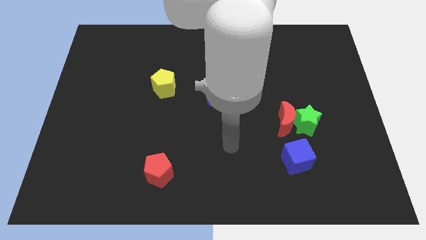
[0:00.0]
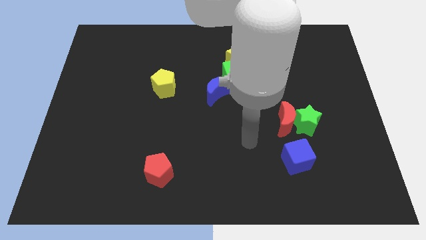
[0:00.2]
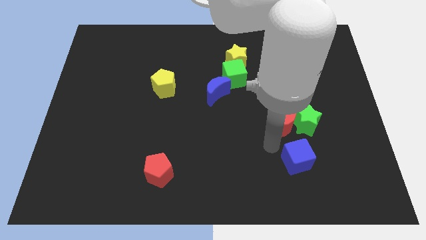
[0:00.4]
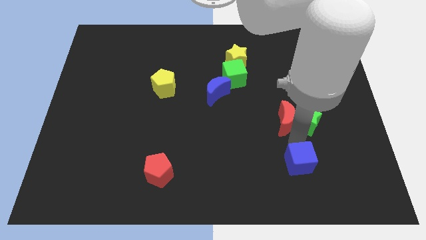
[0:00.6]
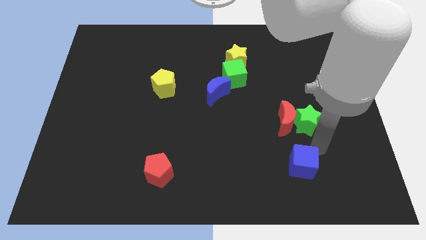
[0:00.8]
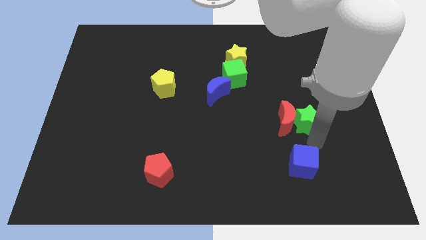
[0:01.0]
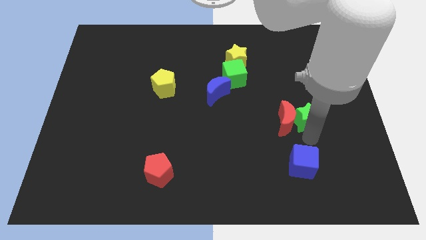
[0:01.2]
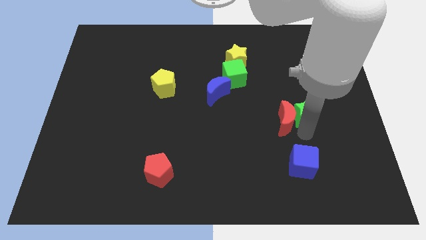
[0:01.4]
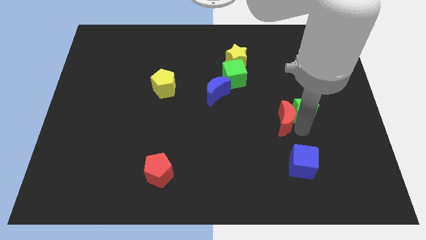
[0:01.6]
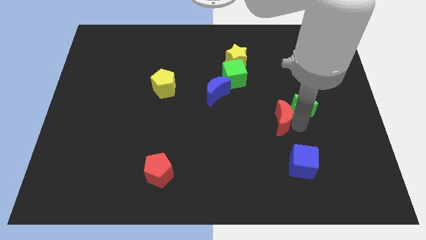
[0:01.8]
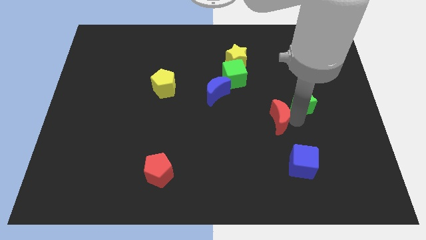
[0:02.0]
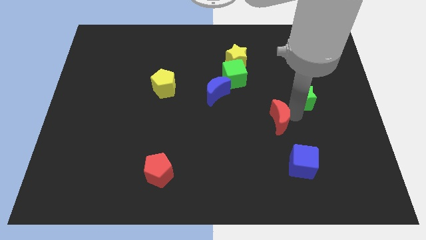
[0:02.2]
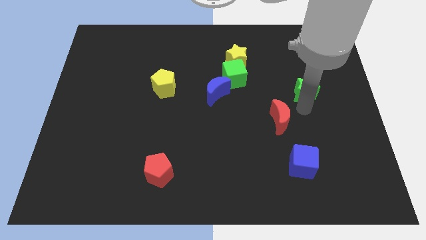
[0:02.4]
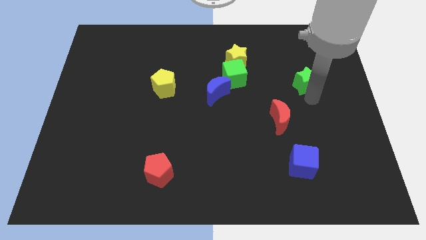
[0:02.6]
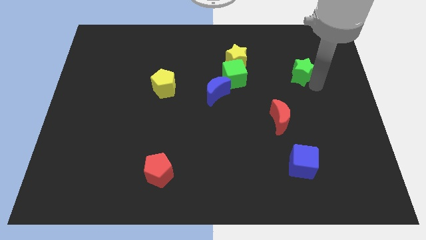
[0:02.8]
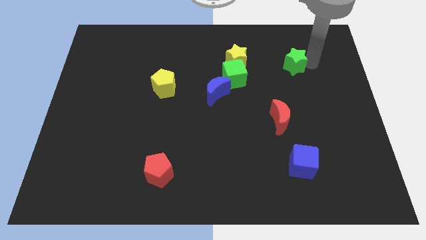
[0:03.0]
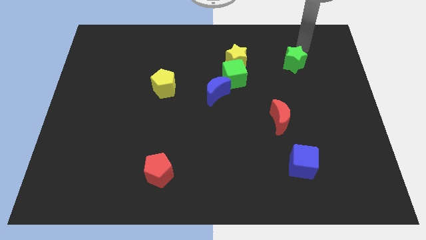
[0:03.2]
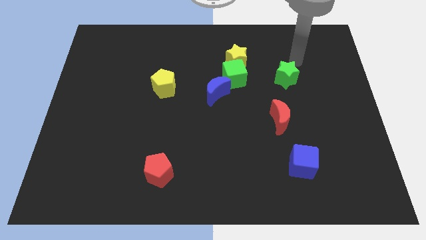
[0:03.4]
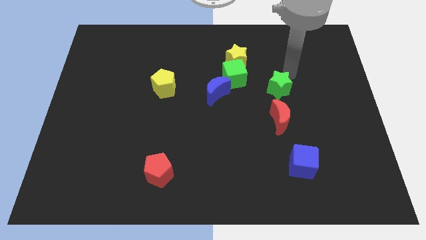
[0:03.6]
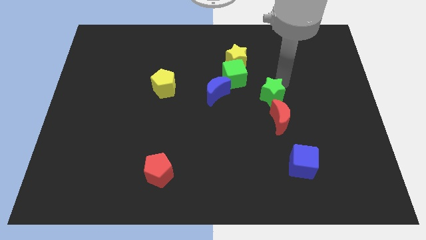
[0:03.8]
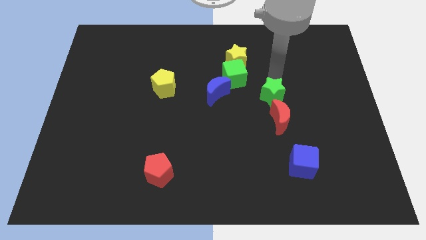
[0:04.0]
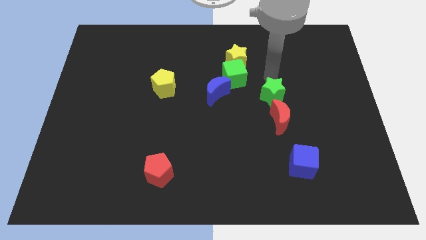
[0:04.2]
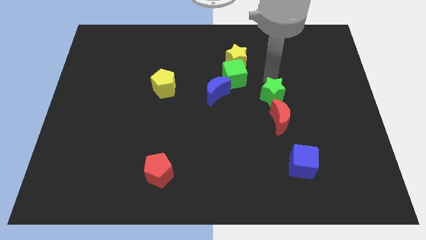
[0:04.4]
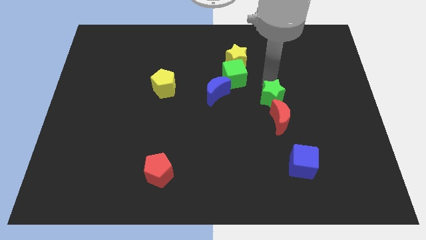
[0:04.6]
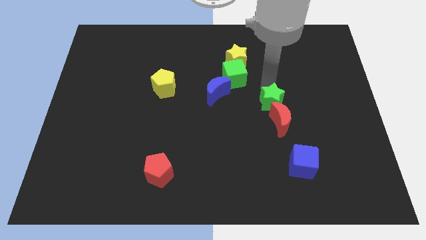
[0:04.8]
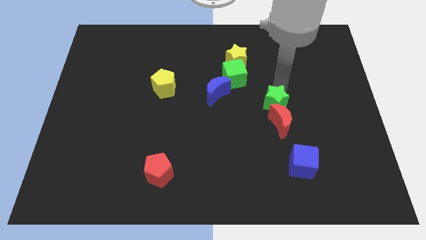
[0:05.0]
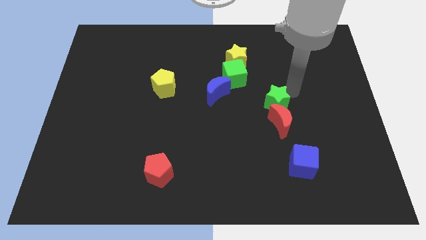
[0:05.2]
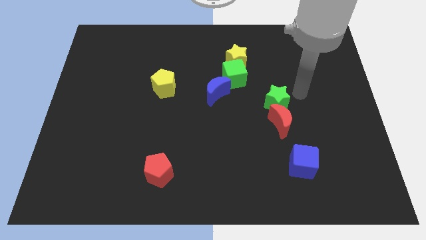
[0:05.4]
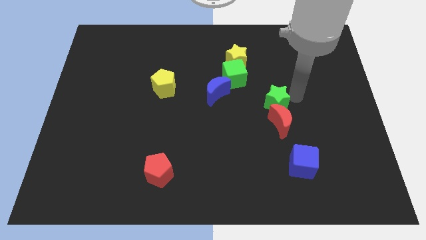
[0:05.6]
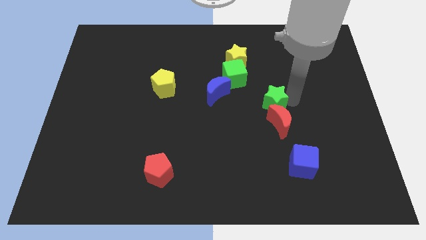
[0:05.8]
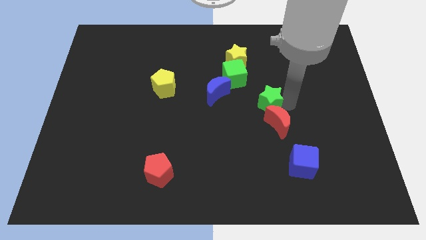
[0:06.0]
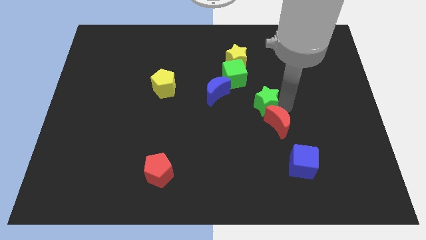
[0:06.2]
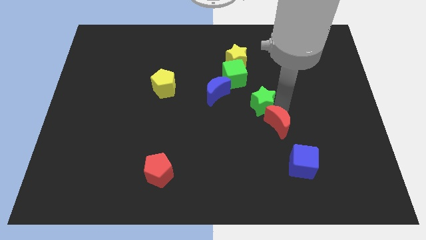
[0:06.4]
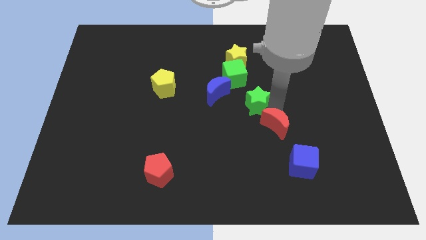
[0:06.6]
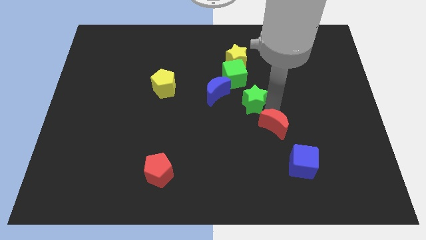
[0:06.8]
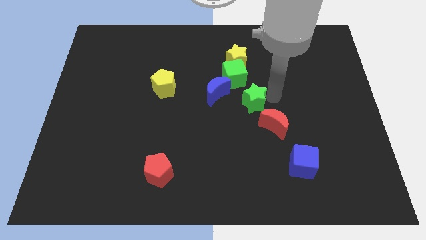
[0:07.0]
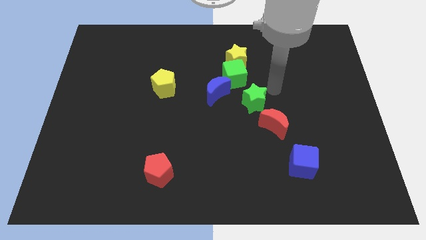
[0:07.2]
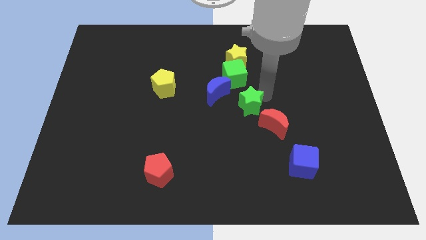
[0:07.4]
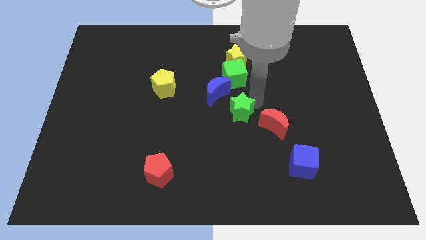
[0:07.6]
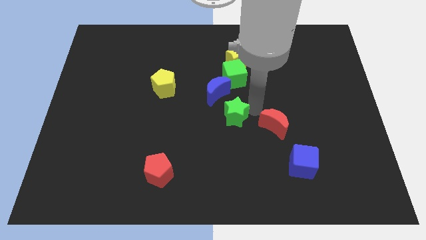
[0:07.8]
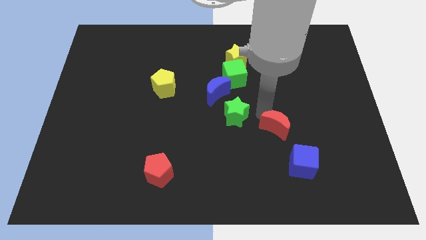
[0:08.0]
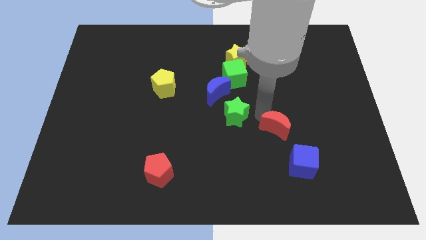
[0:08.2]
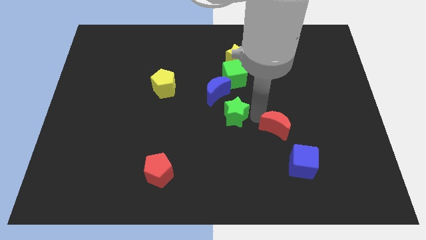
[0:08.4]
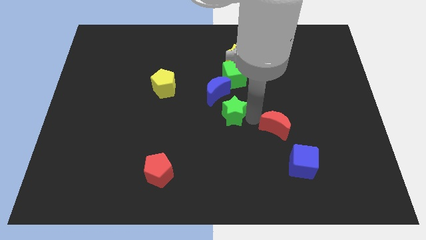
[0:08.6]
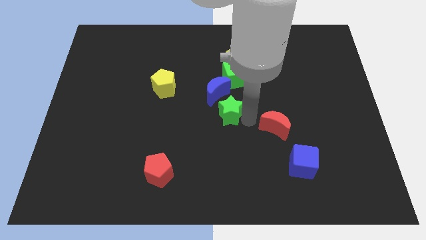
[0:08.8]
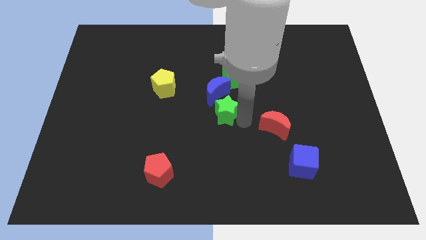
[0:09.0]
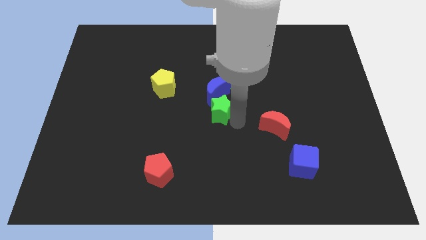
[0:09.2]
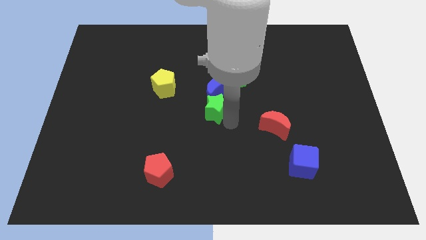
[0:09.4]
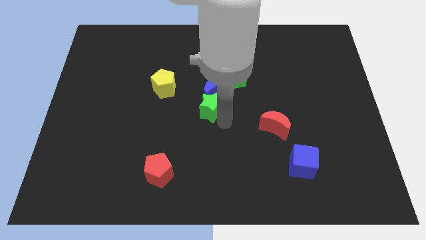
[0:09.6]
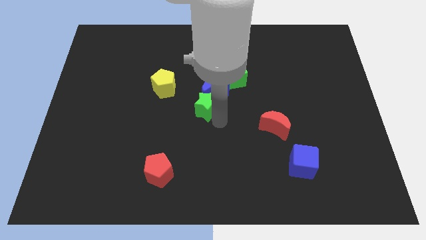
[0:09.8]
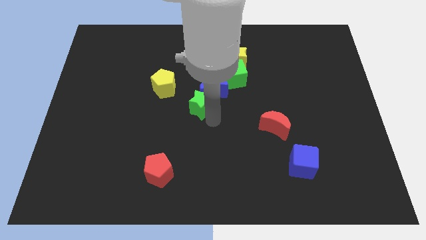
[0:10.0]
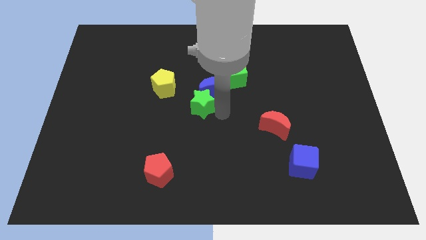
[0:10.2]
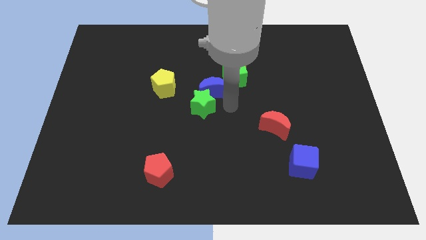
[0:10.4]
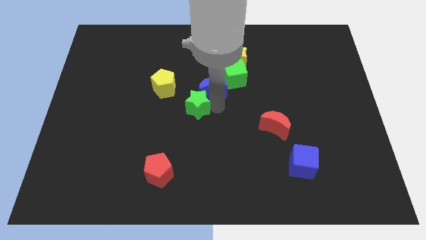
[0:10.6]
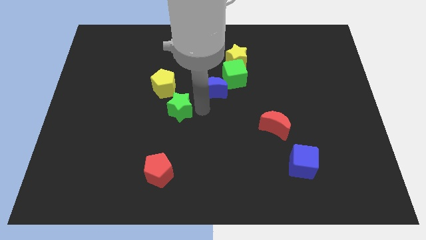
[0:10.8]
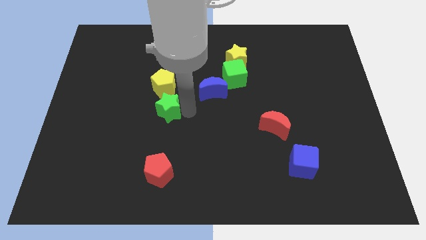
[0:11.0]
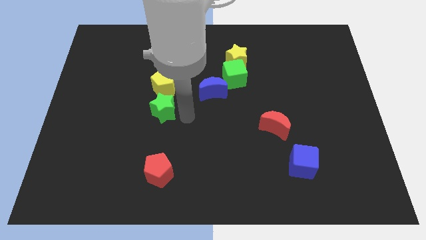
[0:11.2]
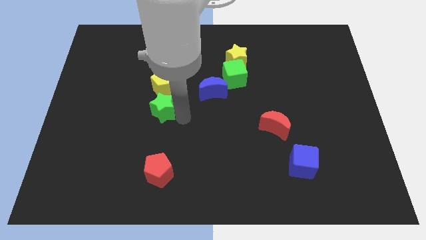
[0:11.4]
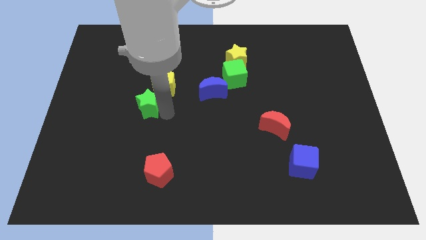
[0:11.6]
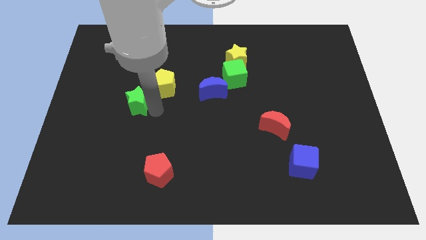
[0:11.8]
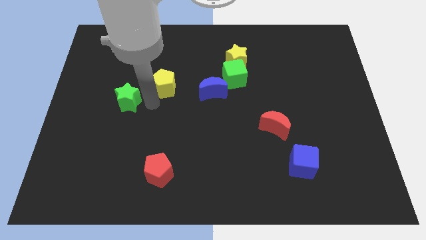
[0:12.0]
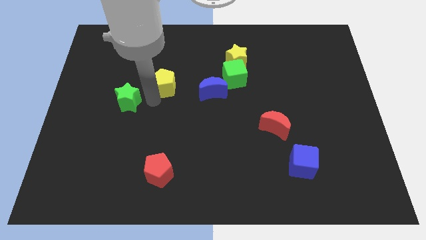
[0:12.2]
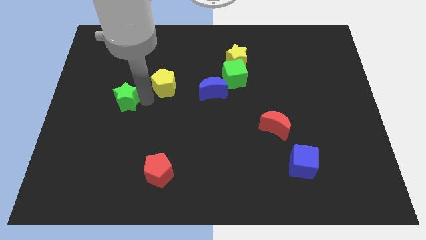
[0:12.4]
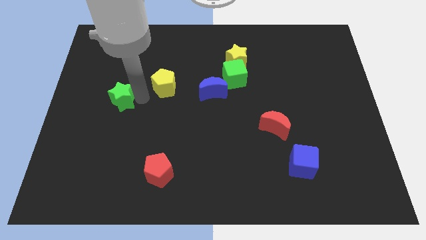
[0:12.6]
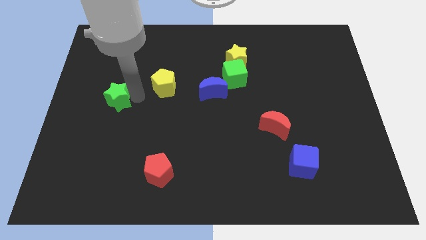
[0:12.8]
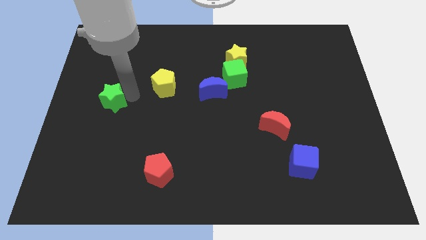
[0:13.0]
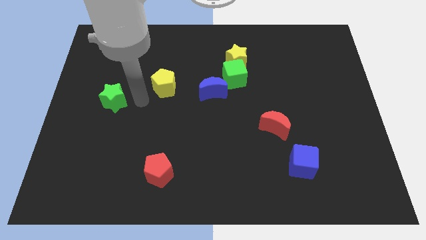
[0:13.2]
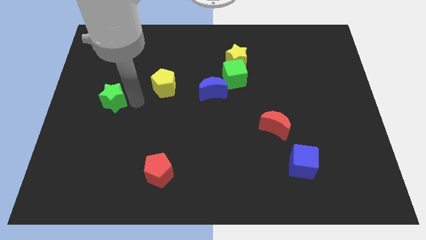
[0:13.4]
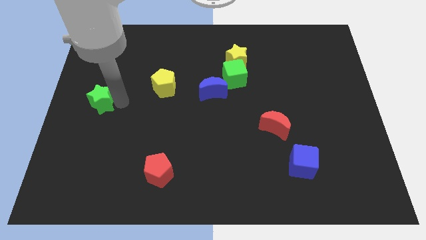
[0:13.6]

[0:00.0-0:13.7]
put the green star to the center left

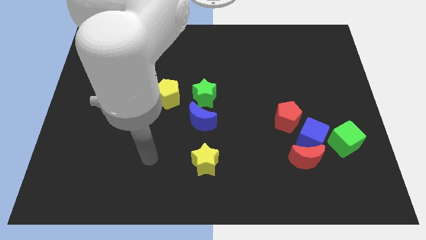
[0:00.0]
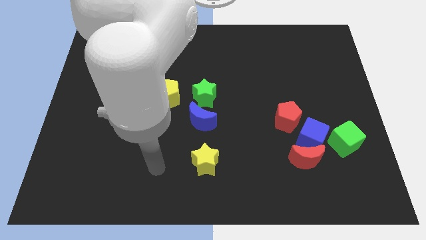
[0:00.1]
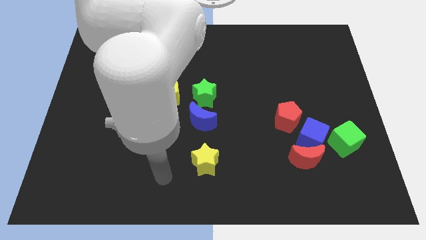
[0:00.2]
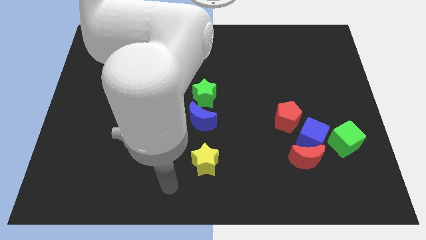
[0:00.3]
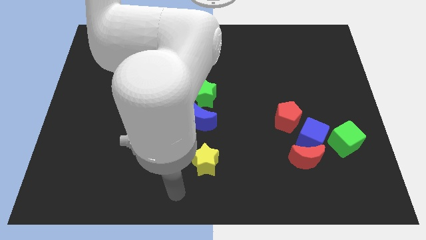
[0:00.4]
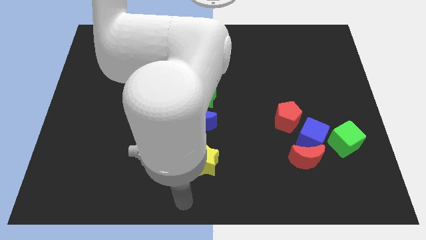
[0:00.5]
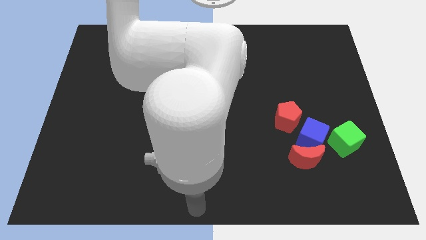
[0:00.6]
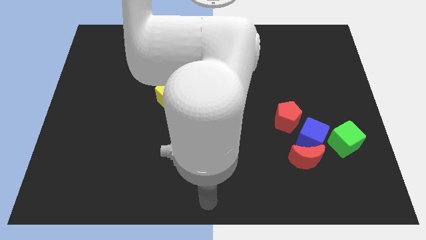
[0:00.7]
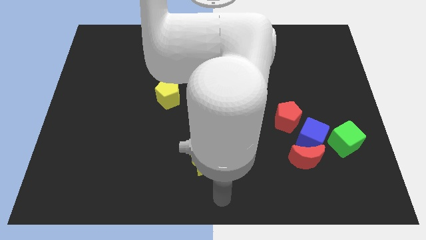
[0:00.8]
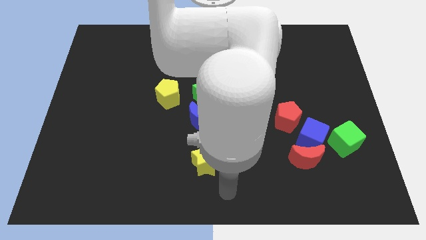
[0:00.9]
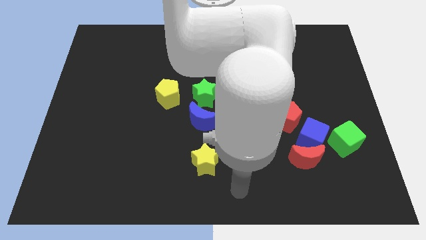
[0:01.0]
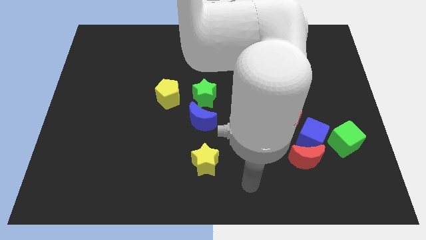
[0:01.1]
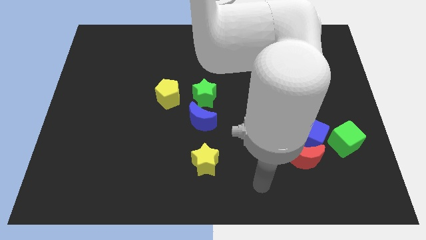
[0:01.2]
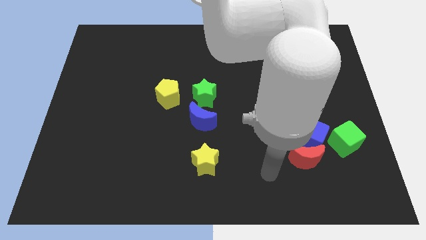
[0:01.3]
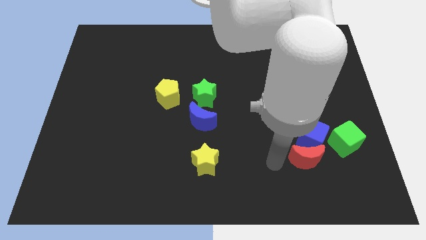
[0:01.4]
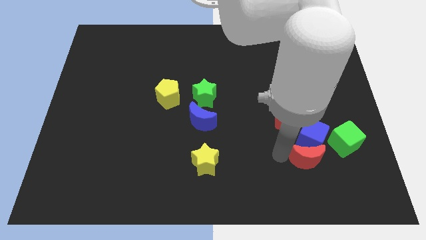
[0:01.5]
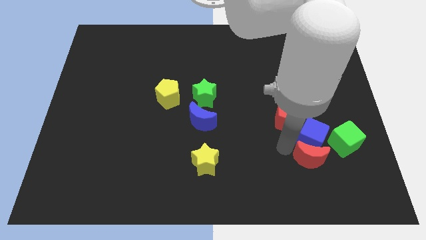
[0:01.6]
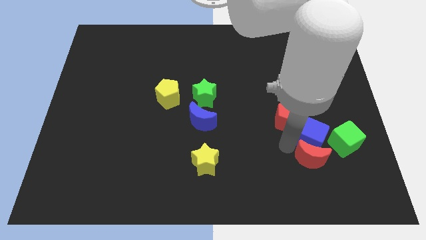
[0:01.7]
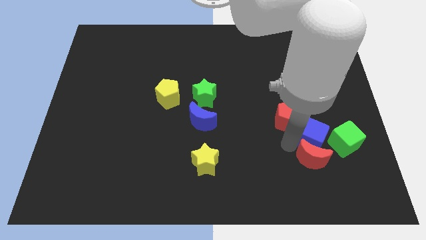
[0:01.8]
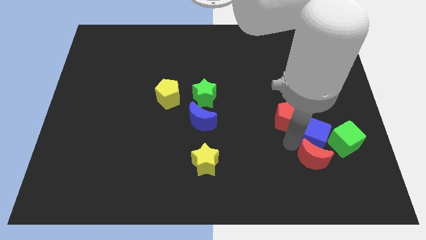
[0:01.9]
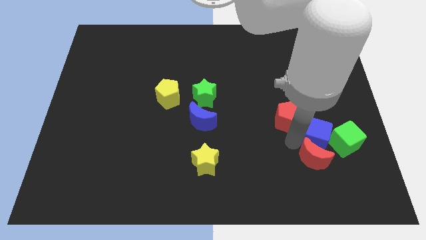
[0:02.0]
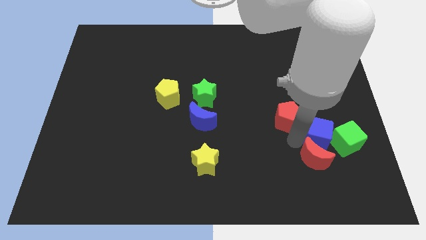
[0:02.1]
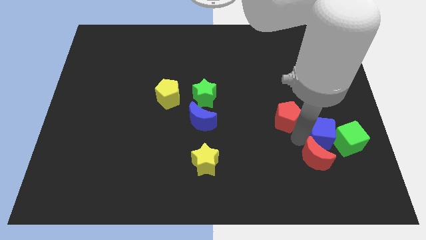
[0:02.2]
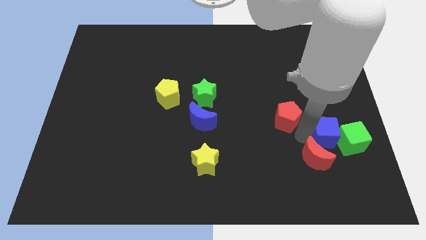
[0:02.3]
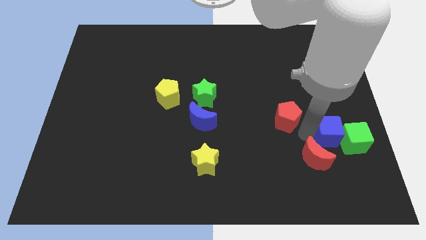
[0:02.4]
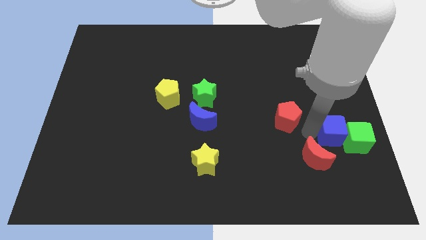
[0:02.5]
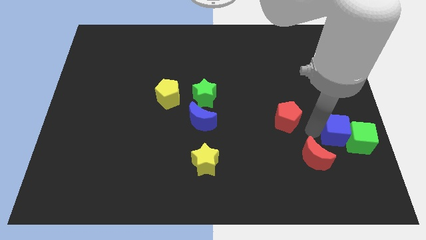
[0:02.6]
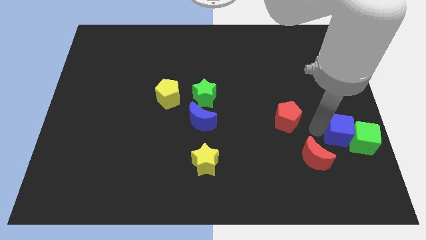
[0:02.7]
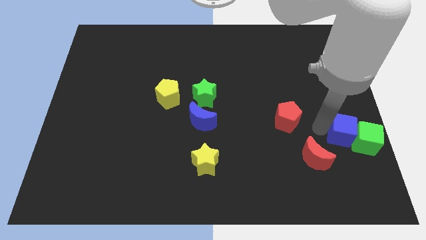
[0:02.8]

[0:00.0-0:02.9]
move the blue cube to the right side of the board
